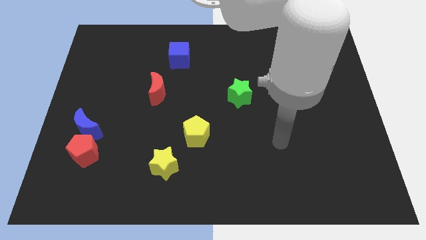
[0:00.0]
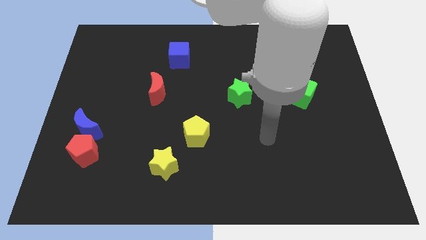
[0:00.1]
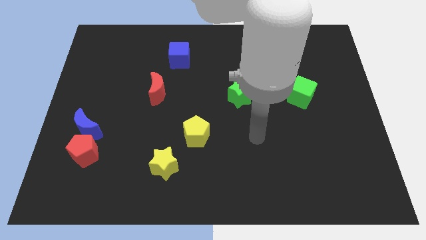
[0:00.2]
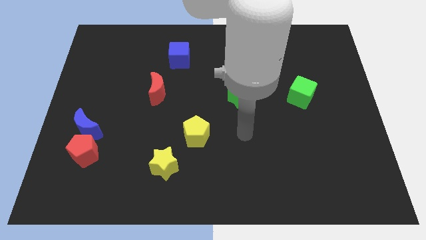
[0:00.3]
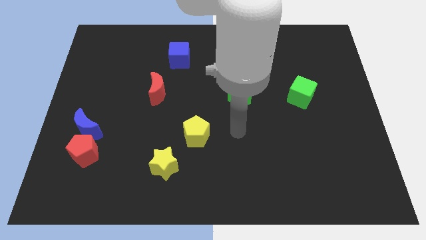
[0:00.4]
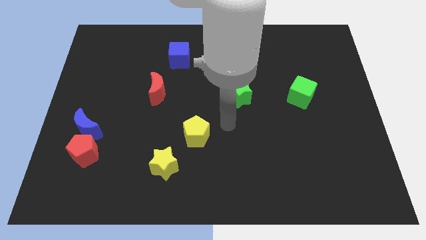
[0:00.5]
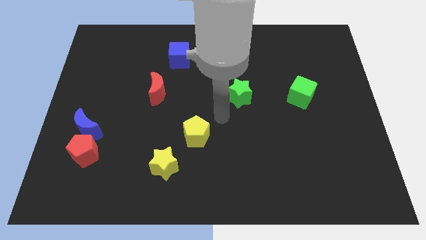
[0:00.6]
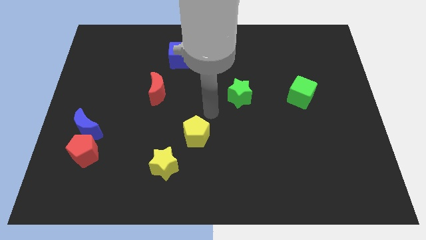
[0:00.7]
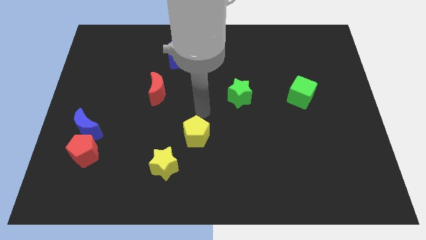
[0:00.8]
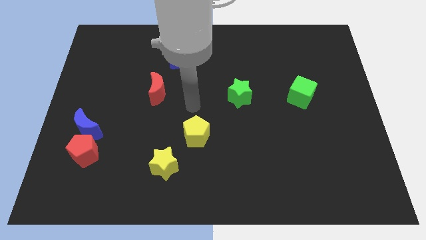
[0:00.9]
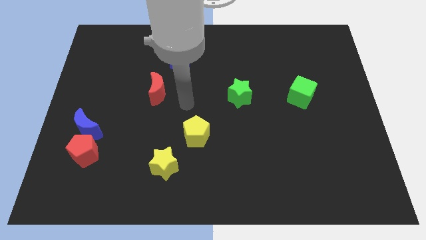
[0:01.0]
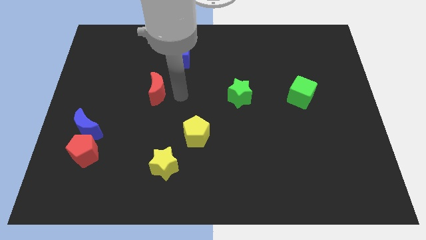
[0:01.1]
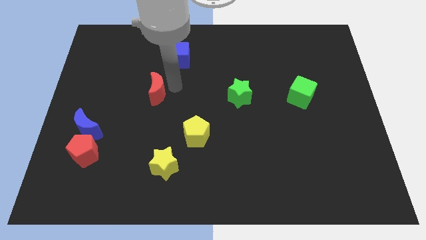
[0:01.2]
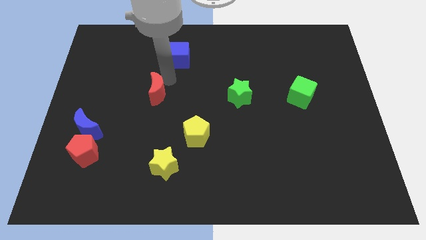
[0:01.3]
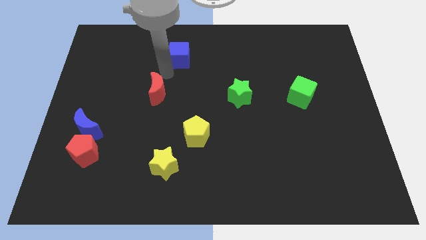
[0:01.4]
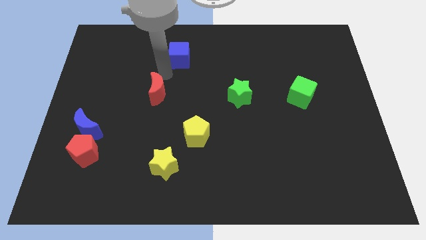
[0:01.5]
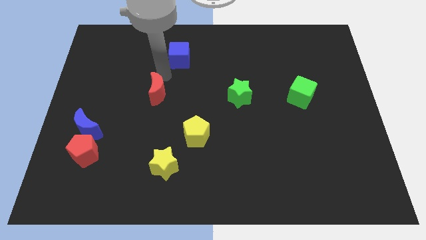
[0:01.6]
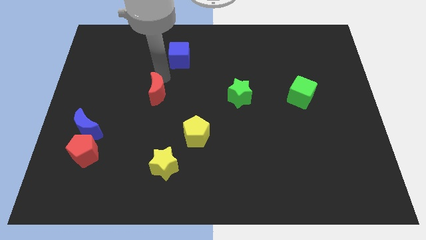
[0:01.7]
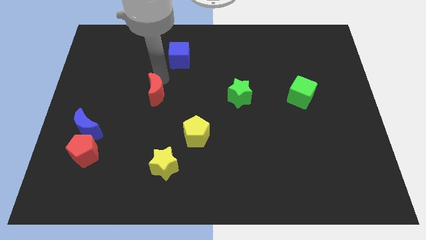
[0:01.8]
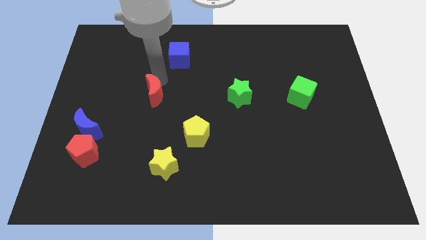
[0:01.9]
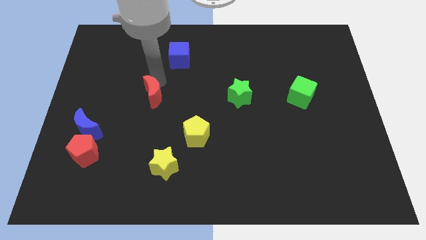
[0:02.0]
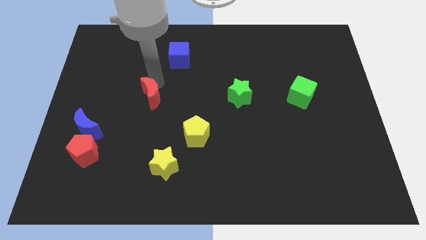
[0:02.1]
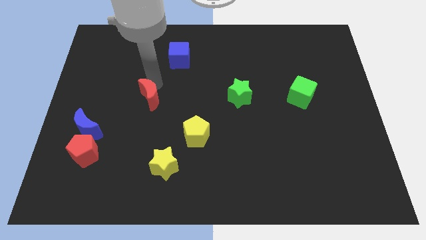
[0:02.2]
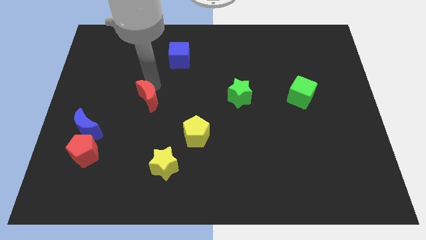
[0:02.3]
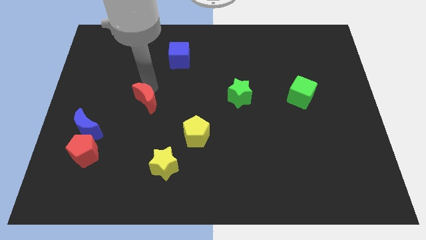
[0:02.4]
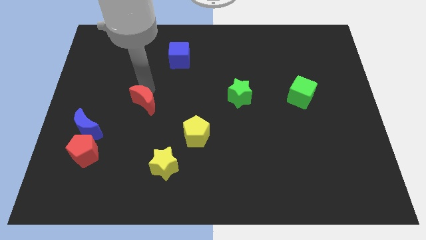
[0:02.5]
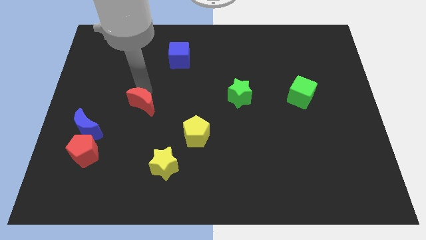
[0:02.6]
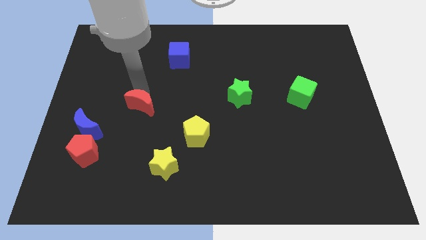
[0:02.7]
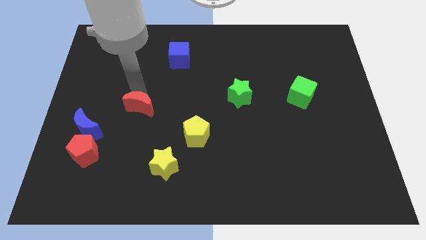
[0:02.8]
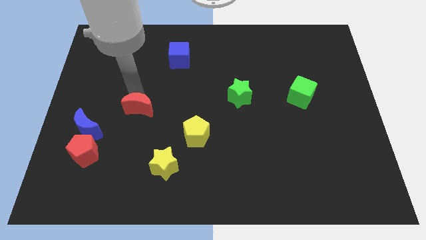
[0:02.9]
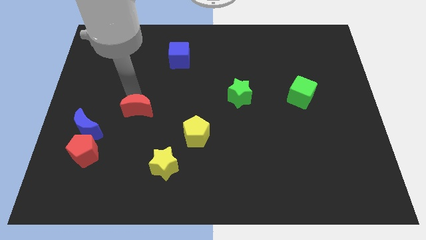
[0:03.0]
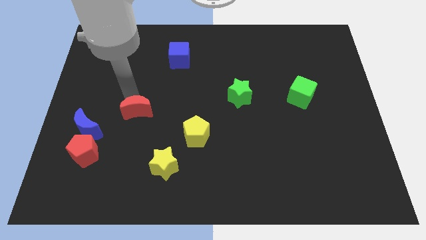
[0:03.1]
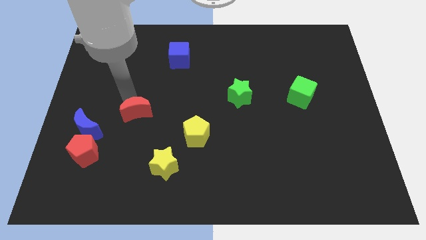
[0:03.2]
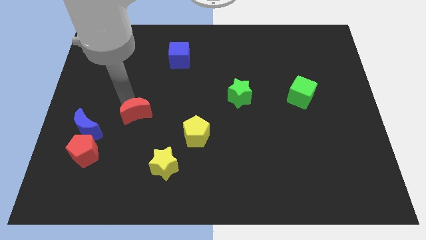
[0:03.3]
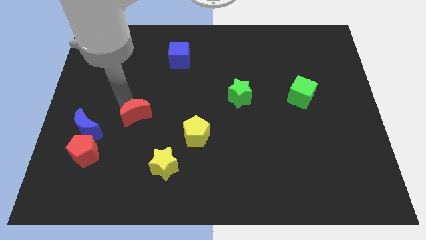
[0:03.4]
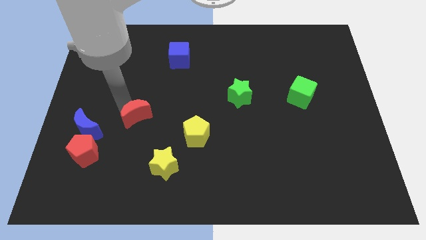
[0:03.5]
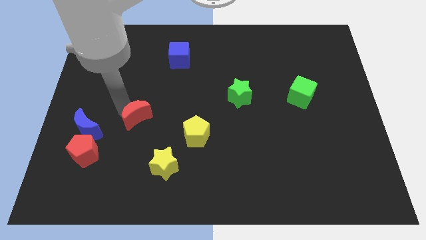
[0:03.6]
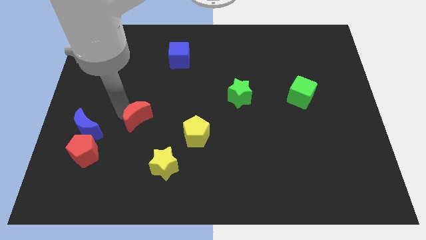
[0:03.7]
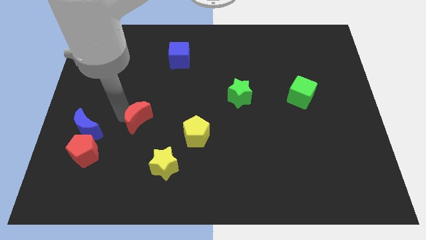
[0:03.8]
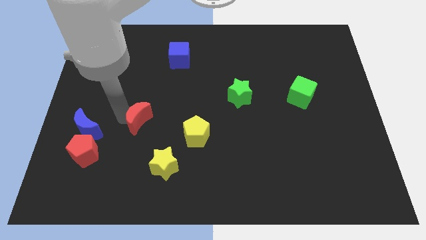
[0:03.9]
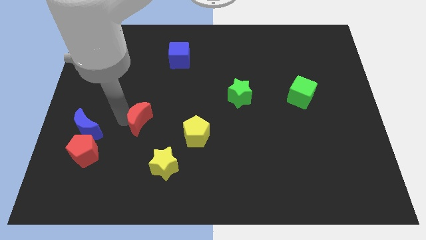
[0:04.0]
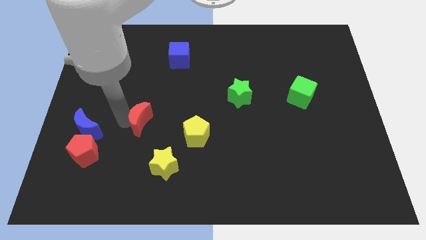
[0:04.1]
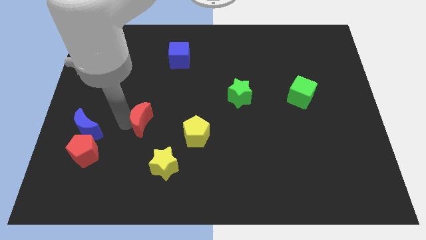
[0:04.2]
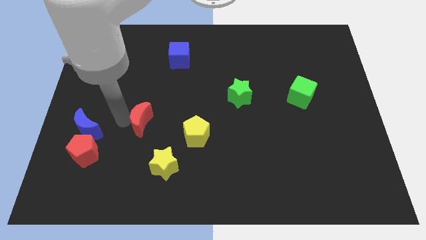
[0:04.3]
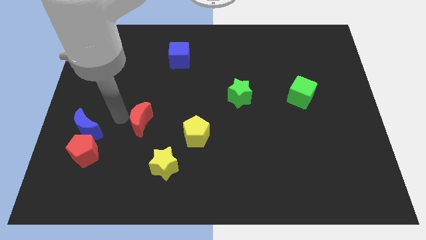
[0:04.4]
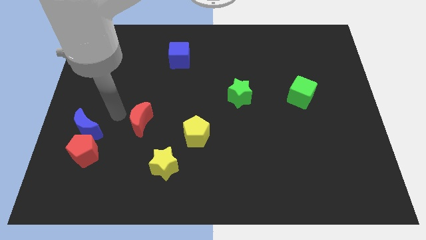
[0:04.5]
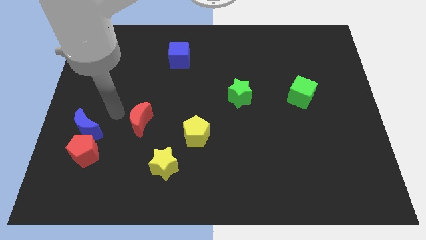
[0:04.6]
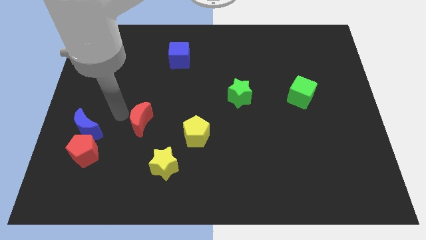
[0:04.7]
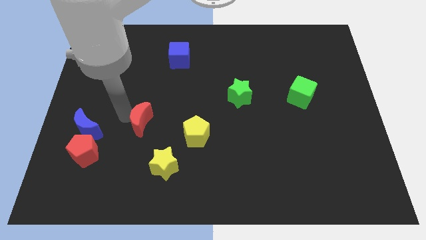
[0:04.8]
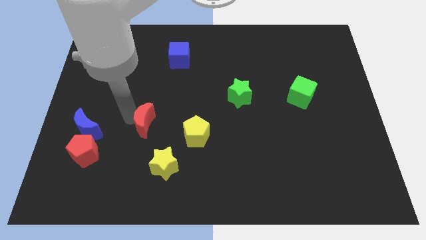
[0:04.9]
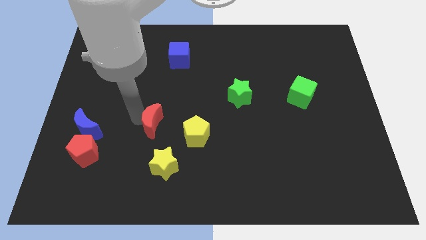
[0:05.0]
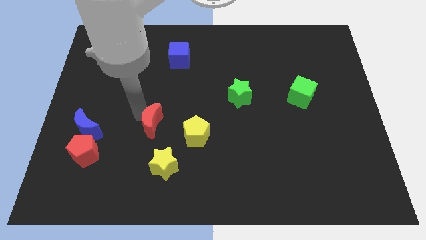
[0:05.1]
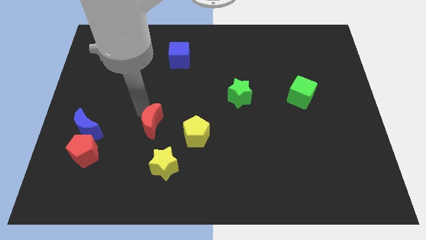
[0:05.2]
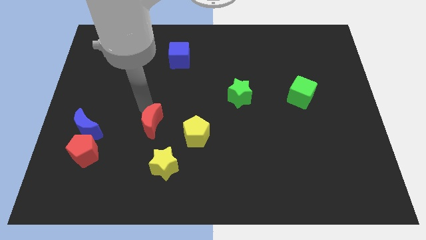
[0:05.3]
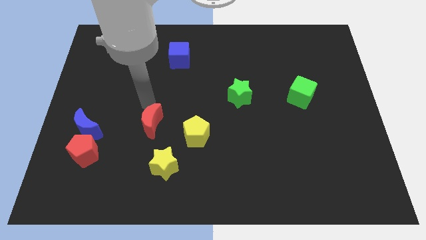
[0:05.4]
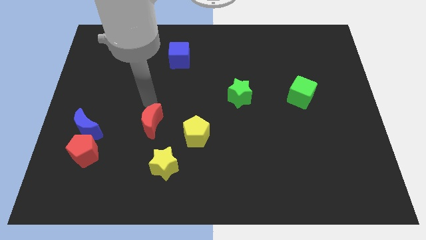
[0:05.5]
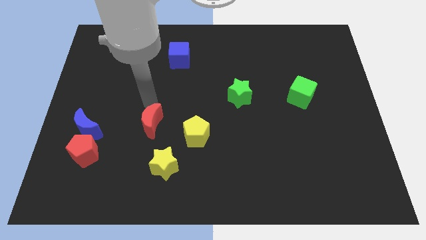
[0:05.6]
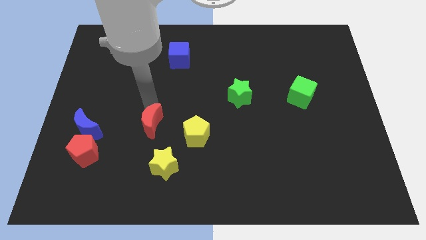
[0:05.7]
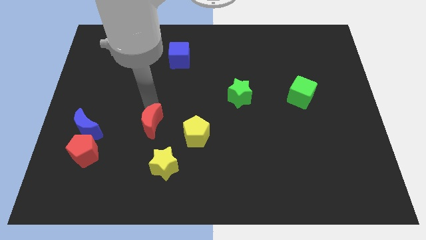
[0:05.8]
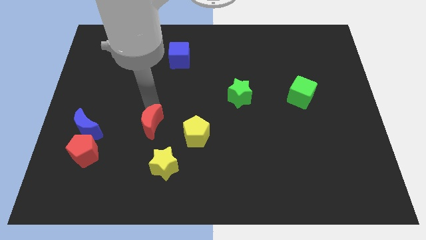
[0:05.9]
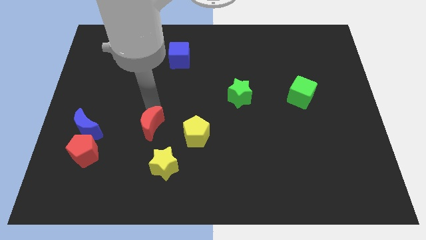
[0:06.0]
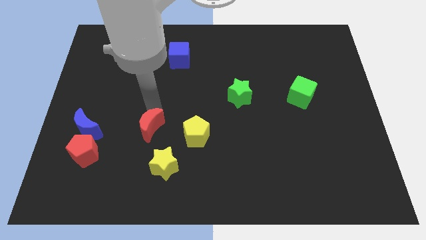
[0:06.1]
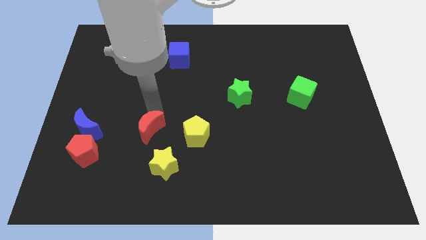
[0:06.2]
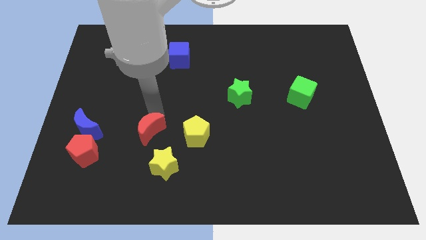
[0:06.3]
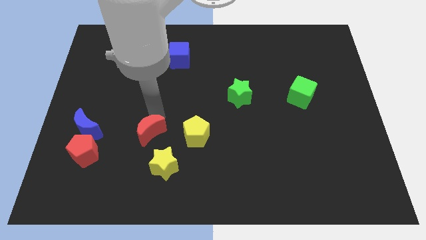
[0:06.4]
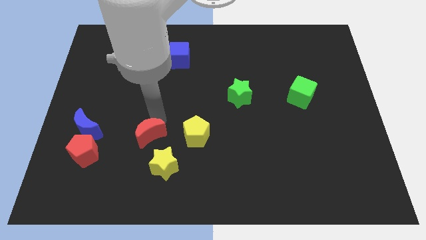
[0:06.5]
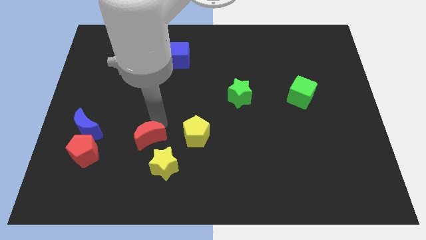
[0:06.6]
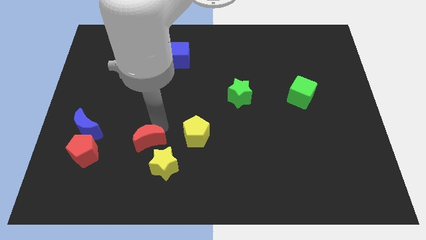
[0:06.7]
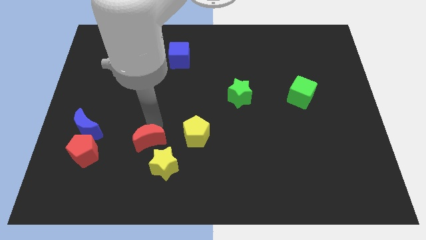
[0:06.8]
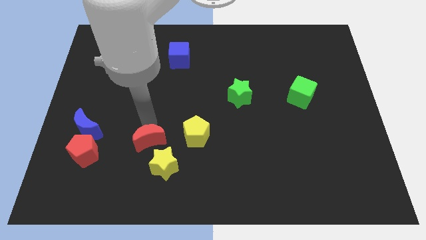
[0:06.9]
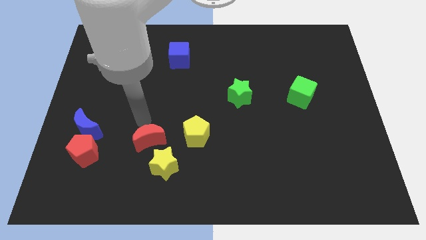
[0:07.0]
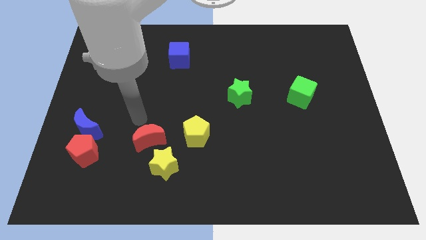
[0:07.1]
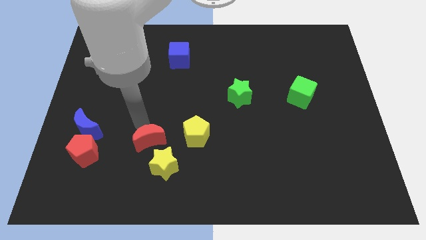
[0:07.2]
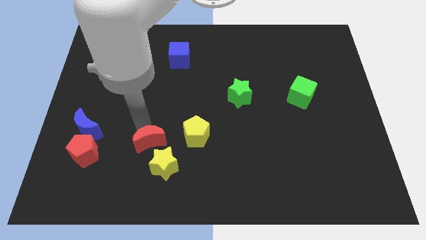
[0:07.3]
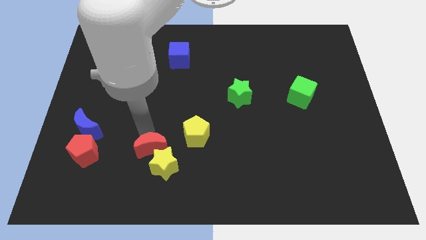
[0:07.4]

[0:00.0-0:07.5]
slide the red moon towards the yellow star
